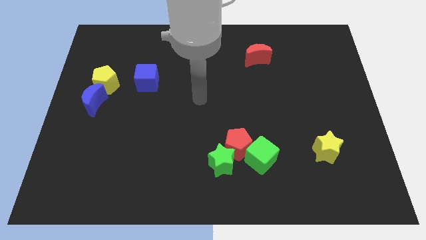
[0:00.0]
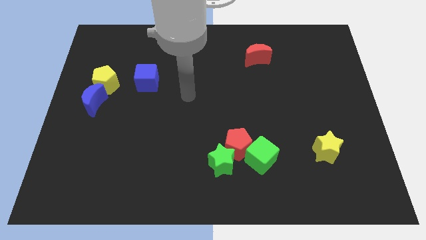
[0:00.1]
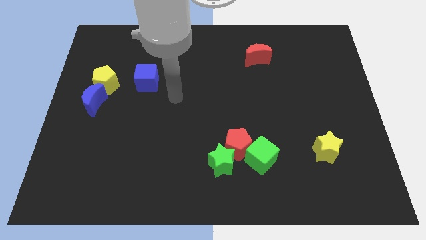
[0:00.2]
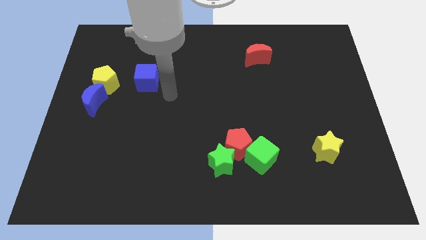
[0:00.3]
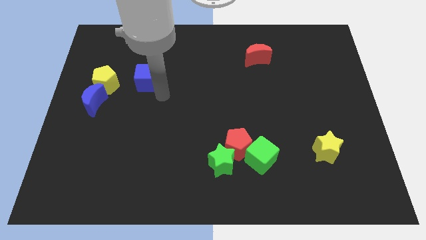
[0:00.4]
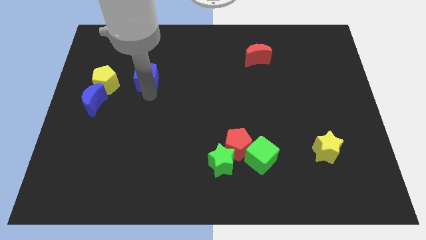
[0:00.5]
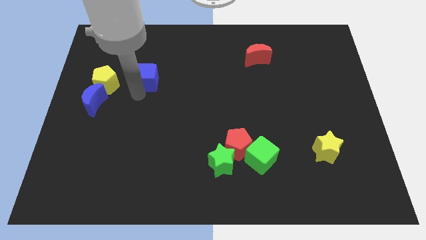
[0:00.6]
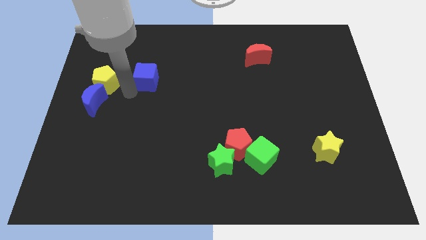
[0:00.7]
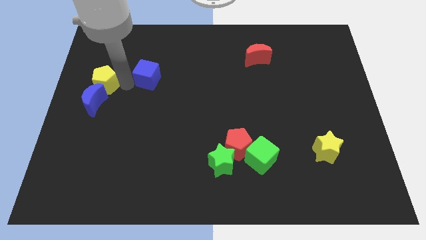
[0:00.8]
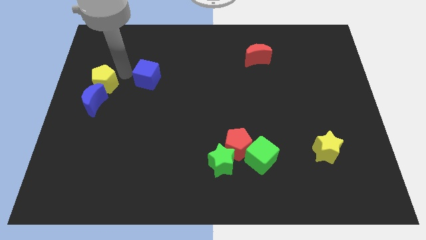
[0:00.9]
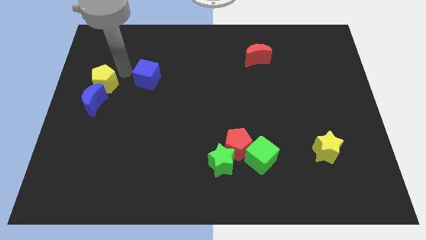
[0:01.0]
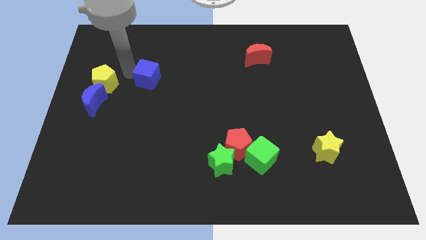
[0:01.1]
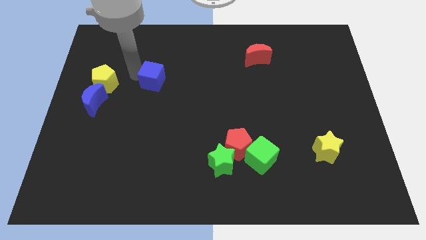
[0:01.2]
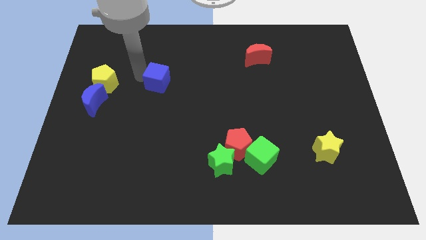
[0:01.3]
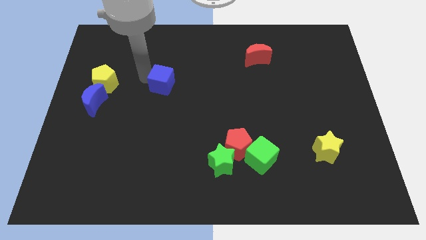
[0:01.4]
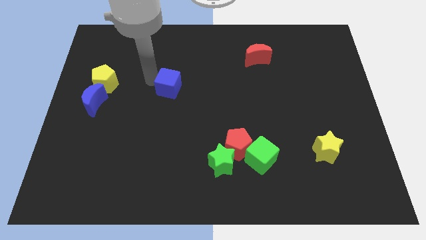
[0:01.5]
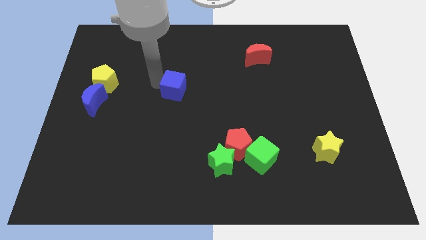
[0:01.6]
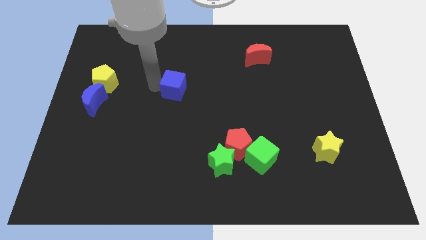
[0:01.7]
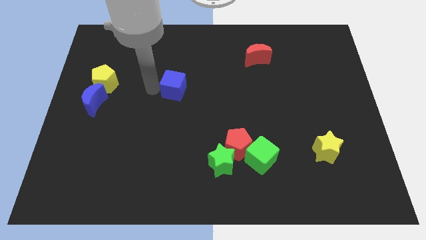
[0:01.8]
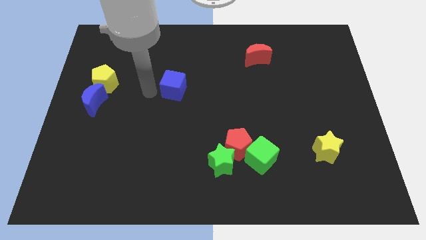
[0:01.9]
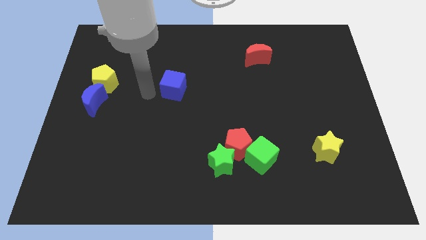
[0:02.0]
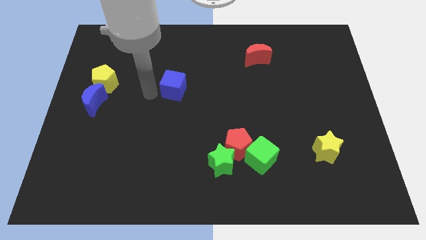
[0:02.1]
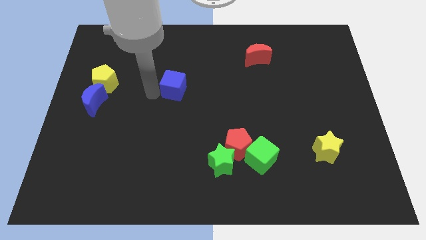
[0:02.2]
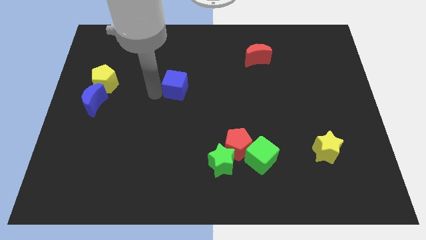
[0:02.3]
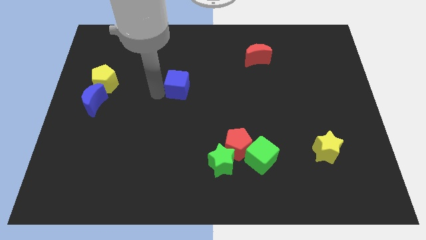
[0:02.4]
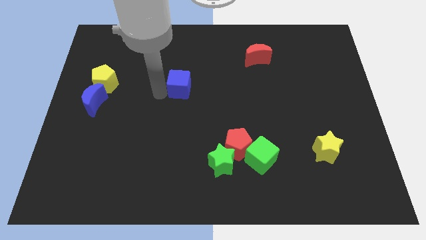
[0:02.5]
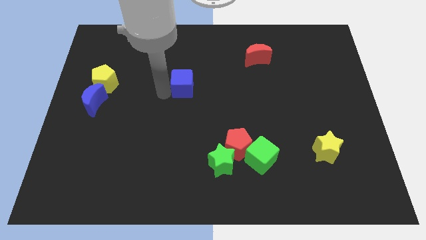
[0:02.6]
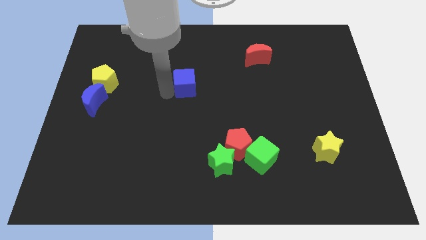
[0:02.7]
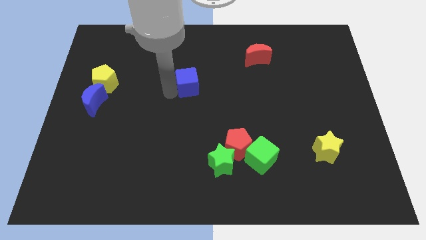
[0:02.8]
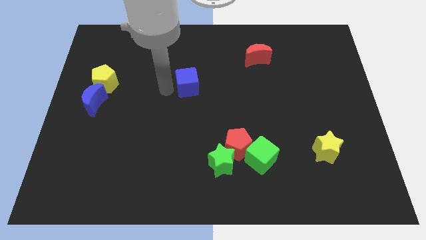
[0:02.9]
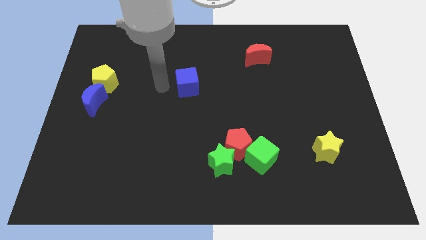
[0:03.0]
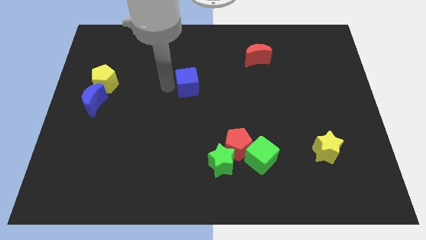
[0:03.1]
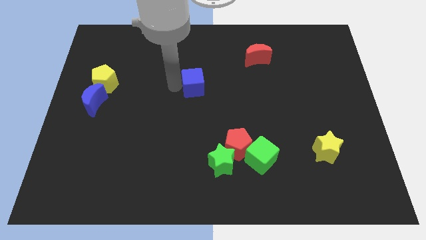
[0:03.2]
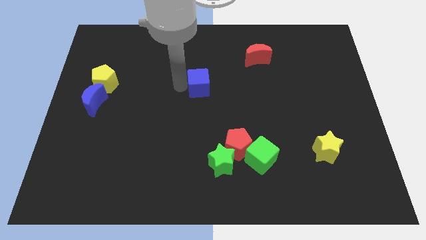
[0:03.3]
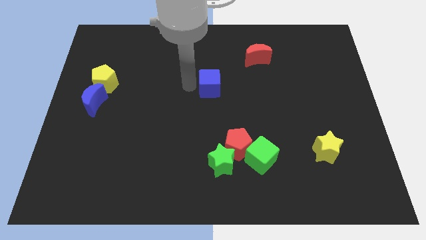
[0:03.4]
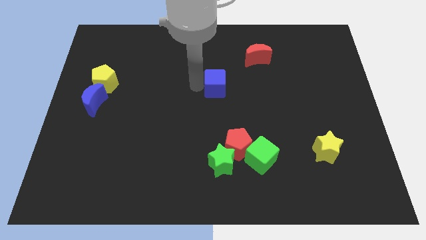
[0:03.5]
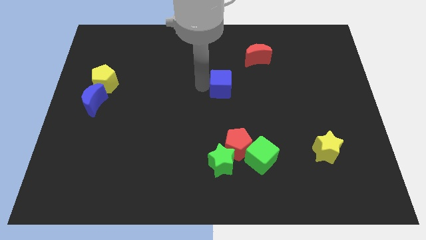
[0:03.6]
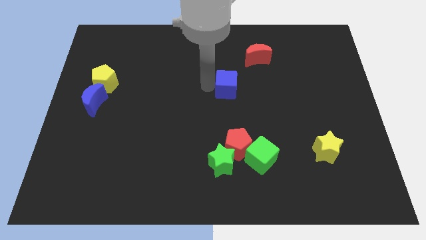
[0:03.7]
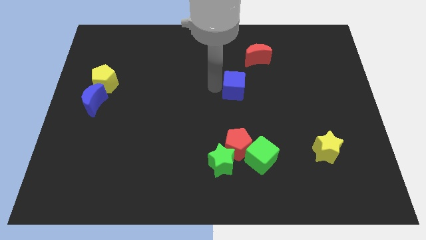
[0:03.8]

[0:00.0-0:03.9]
push the blue cube to the right

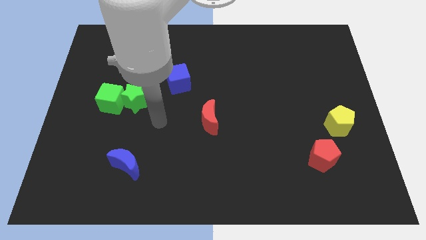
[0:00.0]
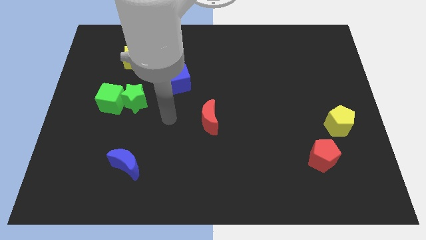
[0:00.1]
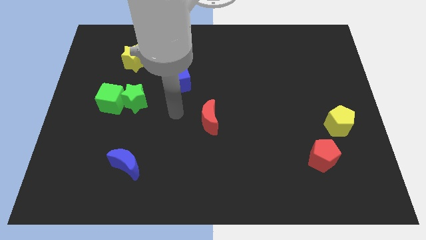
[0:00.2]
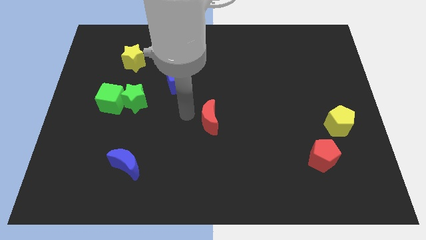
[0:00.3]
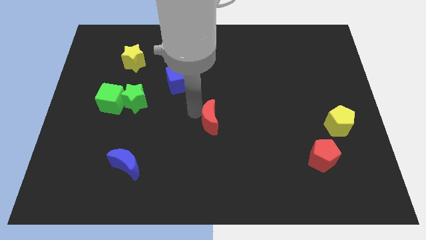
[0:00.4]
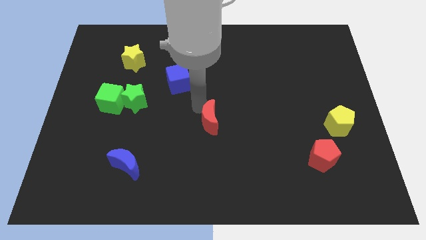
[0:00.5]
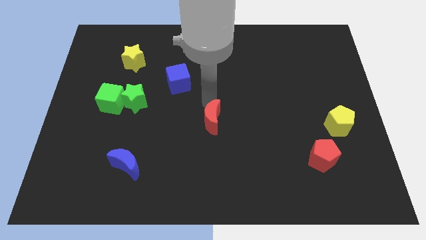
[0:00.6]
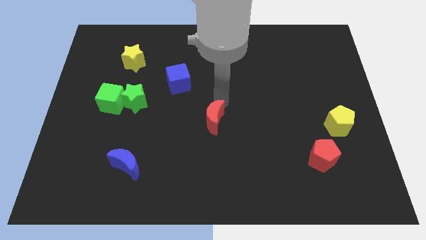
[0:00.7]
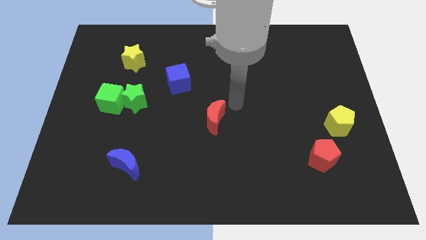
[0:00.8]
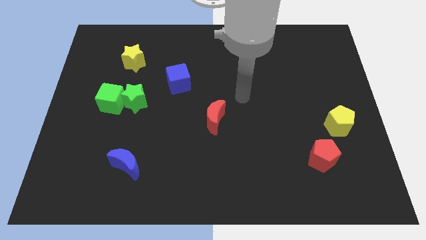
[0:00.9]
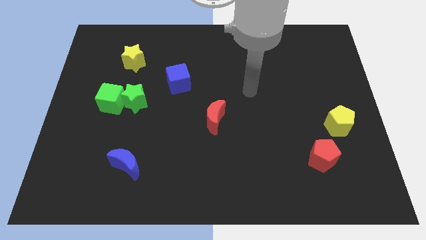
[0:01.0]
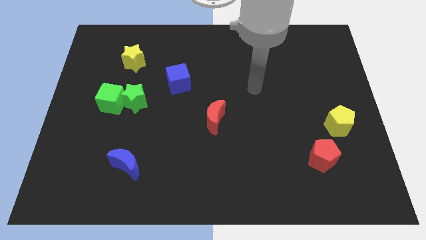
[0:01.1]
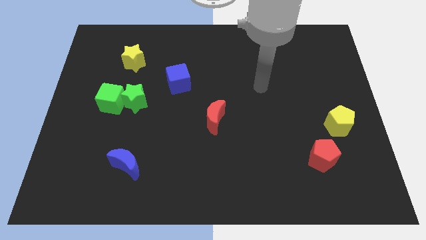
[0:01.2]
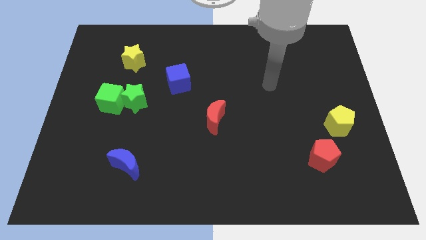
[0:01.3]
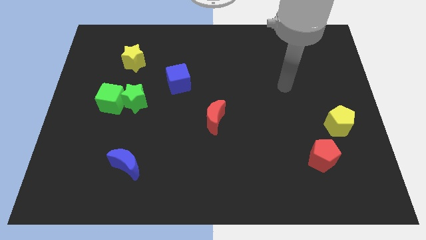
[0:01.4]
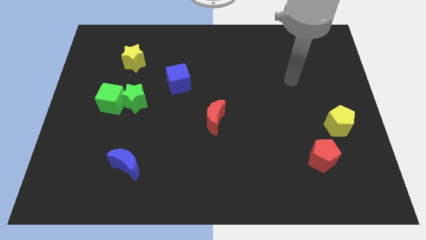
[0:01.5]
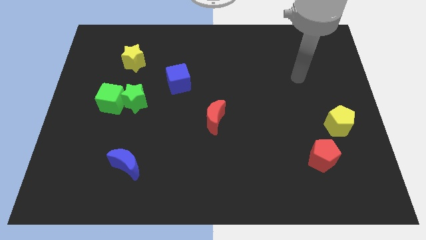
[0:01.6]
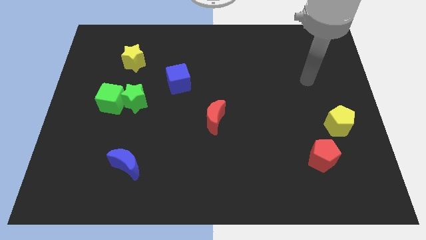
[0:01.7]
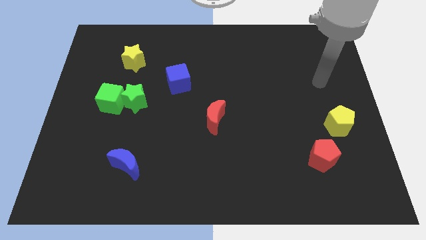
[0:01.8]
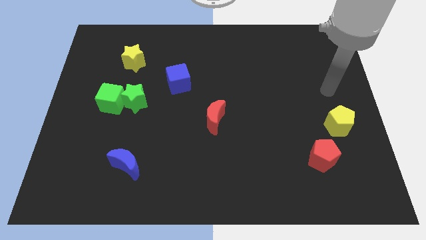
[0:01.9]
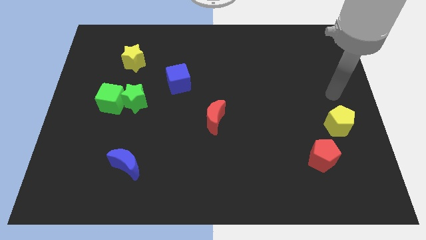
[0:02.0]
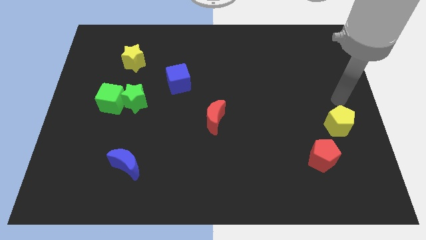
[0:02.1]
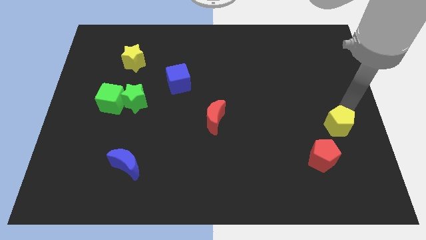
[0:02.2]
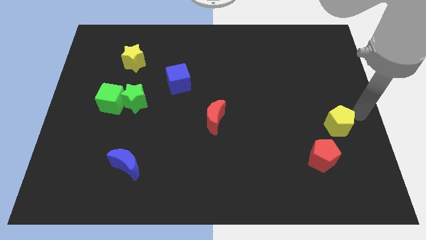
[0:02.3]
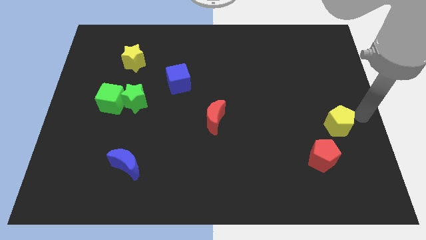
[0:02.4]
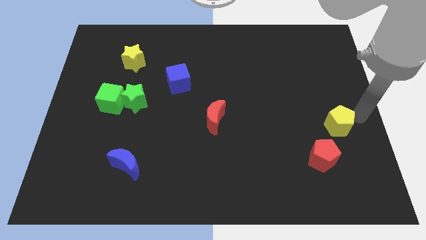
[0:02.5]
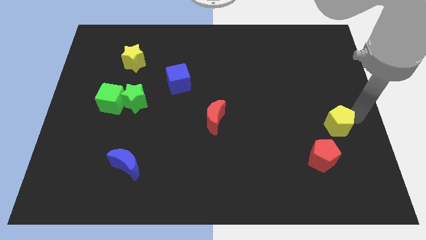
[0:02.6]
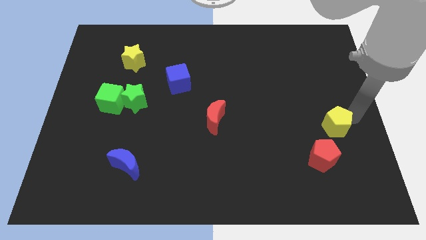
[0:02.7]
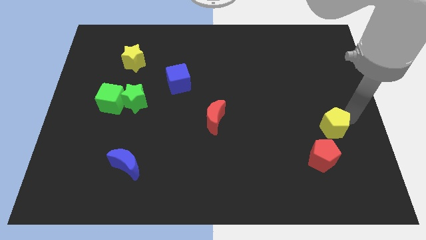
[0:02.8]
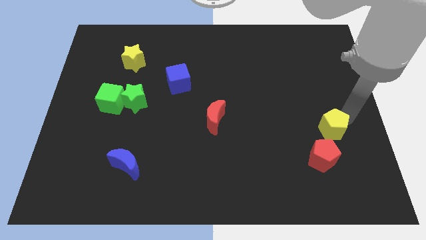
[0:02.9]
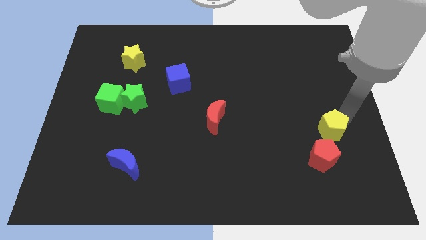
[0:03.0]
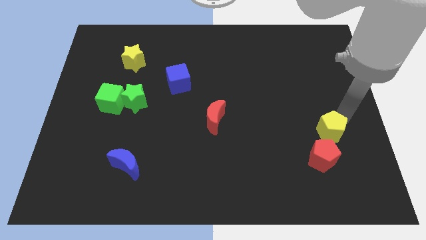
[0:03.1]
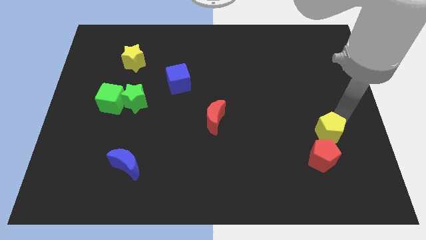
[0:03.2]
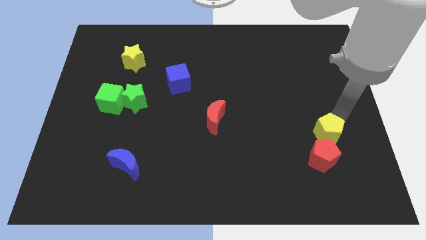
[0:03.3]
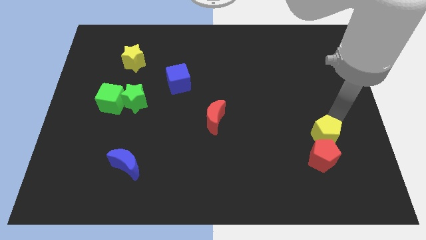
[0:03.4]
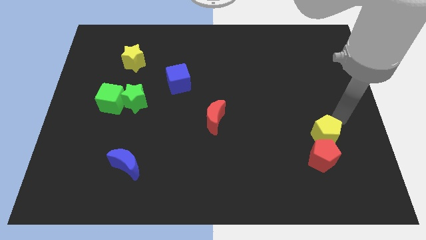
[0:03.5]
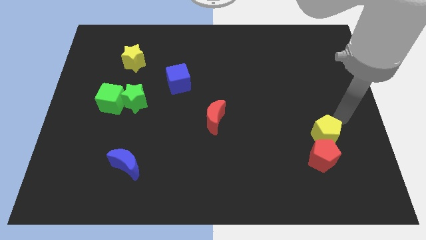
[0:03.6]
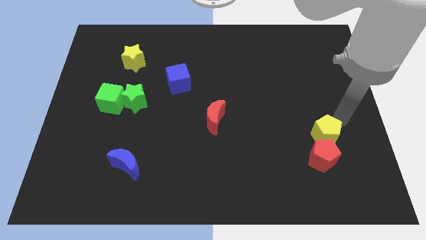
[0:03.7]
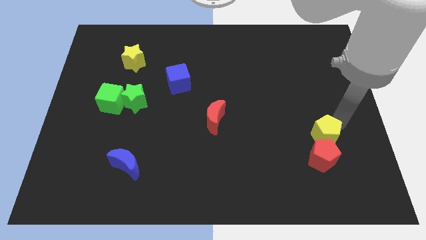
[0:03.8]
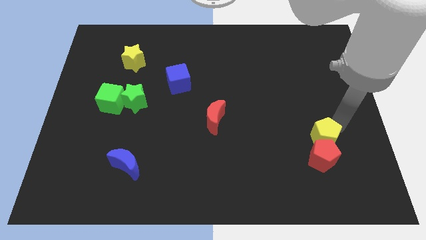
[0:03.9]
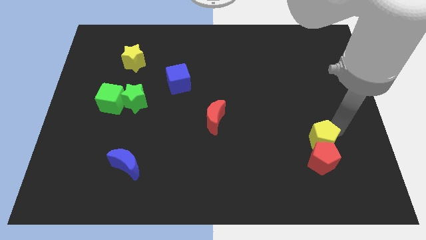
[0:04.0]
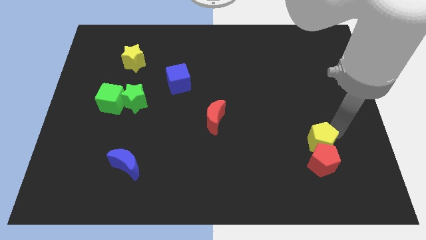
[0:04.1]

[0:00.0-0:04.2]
push the yellow pentagon diagonally down and left a bit

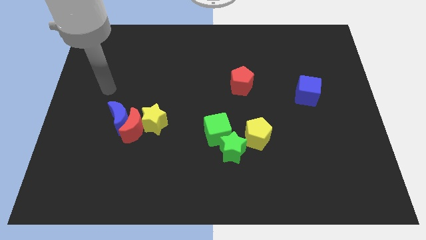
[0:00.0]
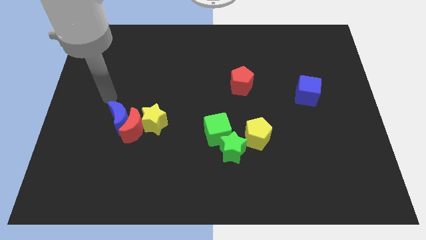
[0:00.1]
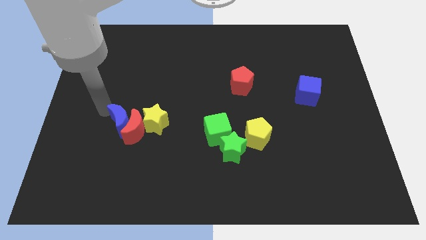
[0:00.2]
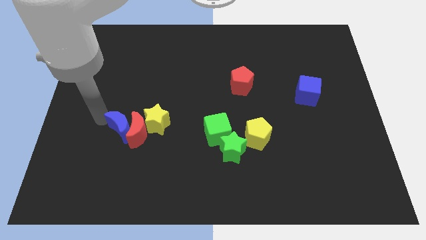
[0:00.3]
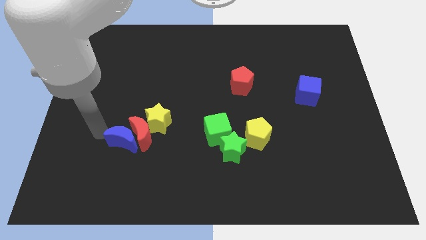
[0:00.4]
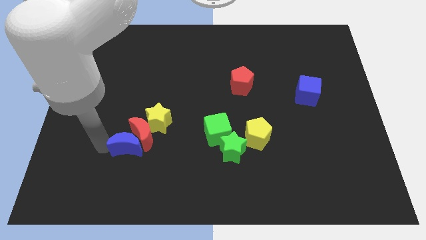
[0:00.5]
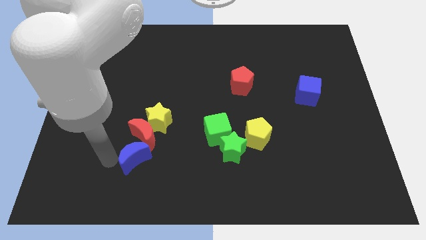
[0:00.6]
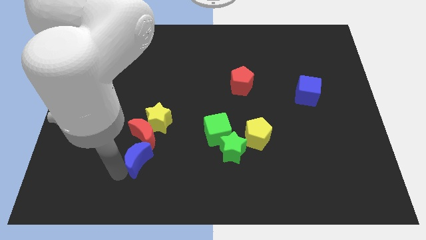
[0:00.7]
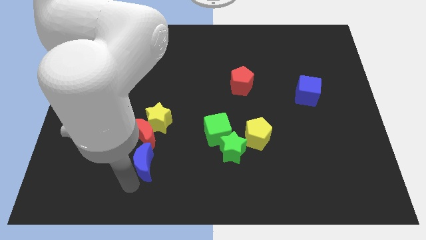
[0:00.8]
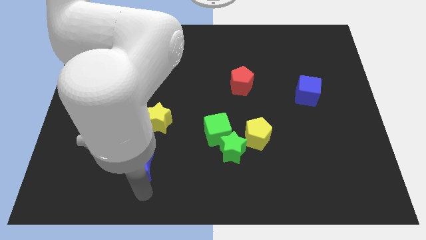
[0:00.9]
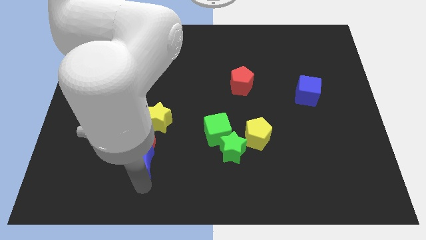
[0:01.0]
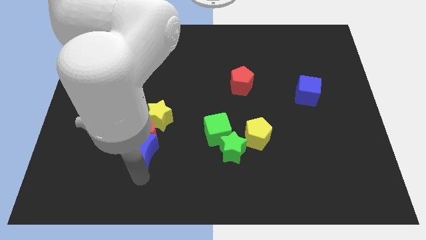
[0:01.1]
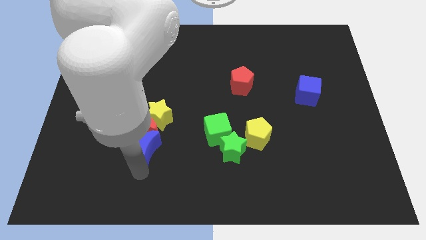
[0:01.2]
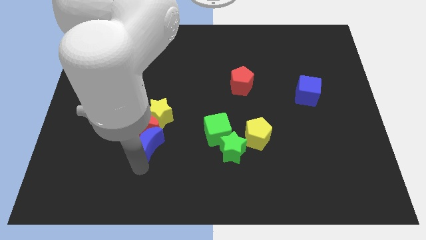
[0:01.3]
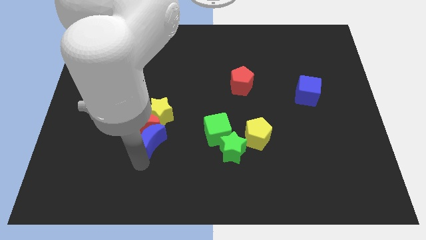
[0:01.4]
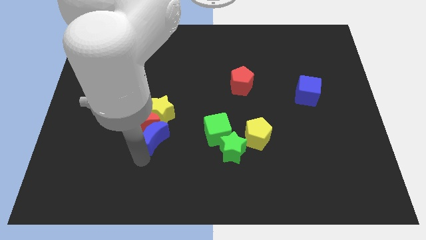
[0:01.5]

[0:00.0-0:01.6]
move the blue moon to the right a little bit
